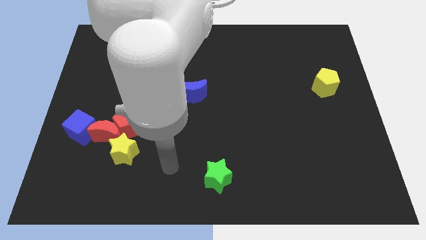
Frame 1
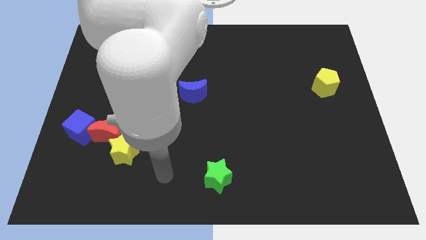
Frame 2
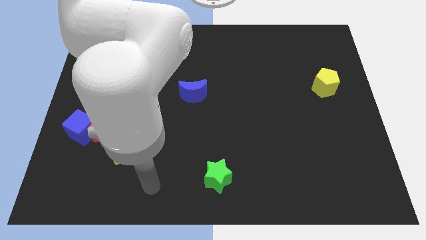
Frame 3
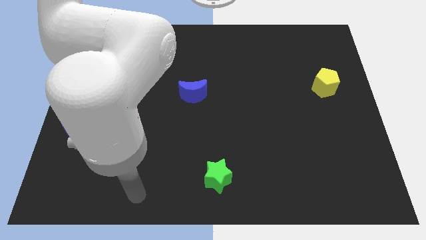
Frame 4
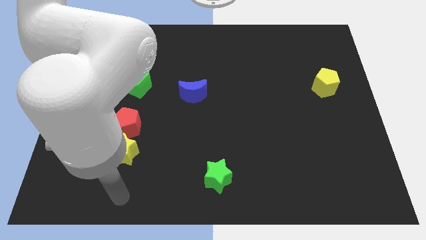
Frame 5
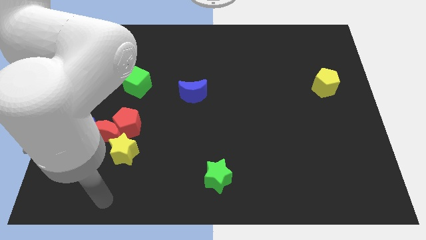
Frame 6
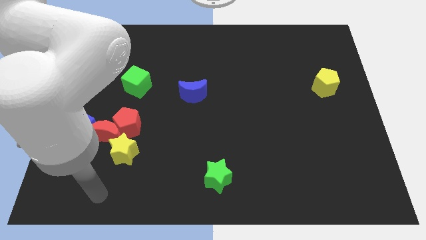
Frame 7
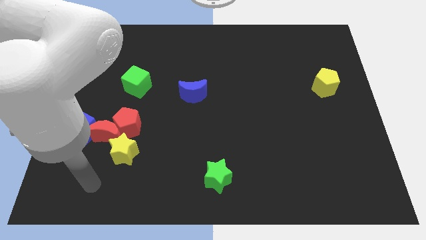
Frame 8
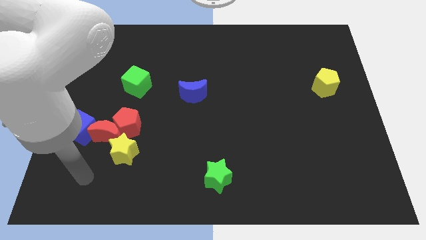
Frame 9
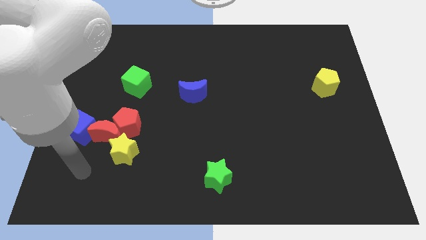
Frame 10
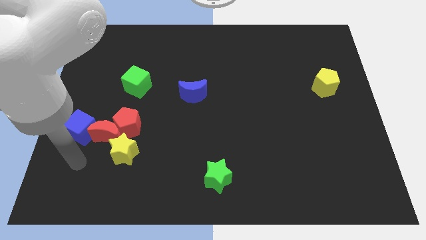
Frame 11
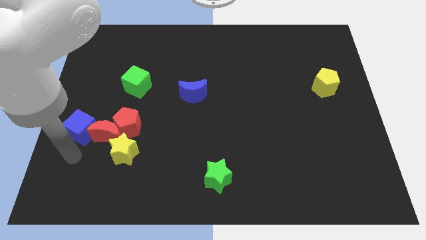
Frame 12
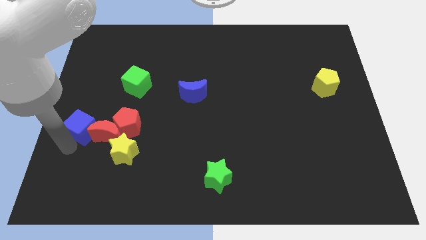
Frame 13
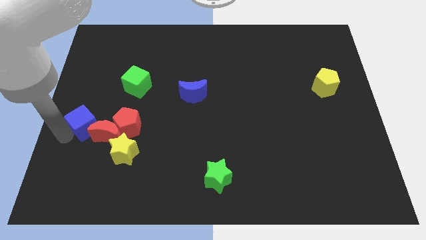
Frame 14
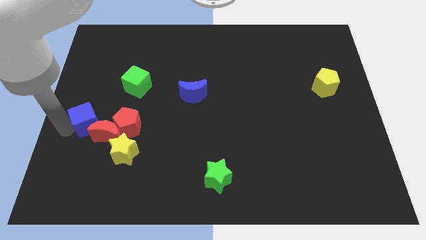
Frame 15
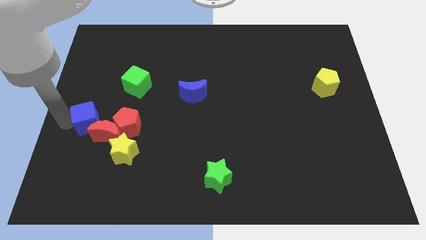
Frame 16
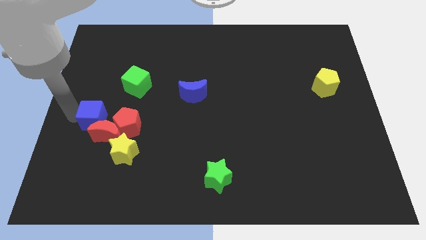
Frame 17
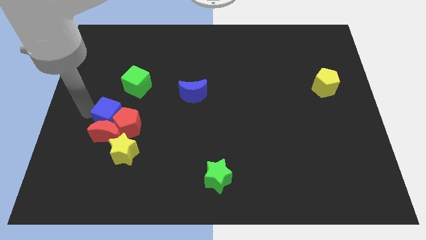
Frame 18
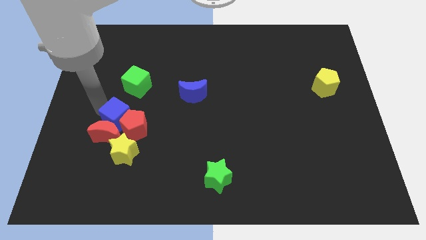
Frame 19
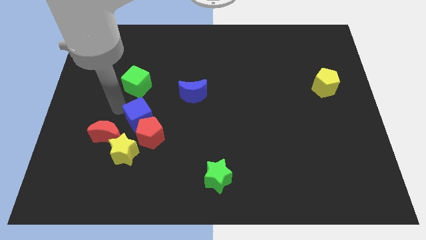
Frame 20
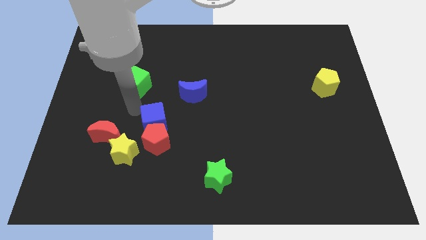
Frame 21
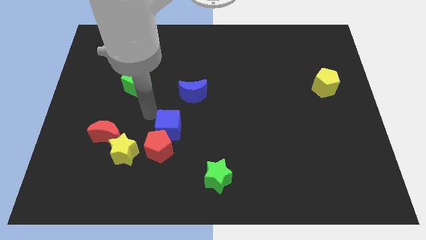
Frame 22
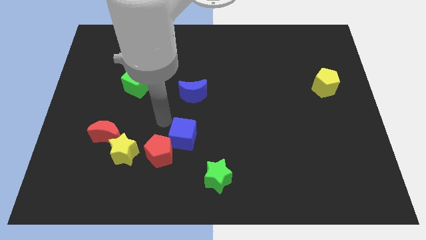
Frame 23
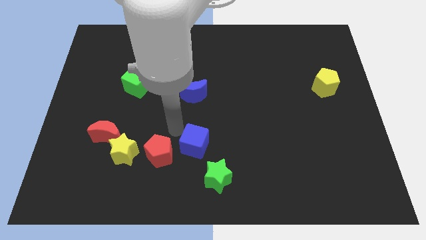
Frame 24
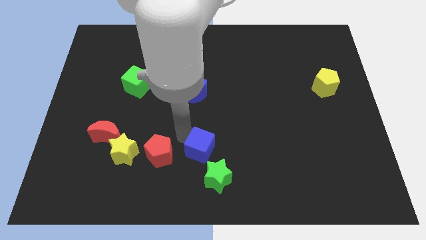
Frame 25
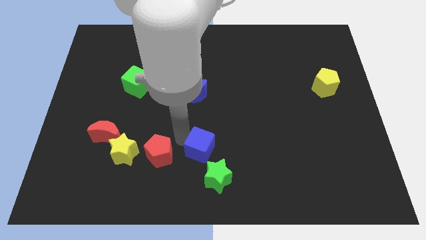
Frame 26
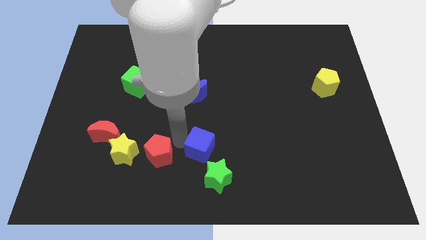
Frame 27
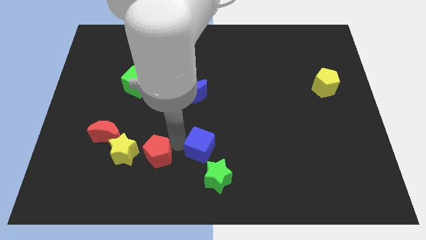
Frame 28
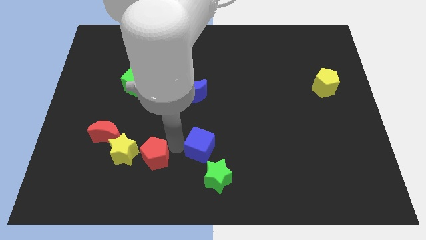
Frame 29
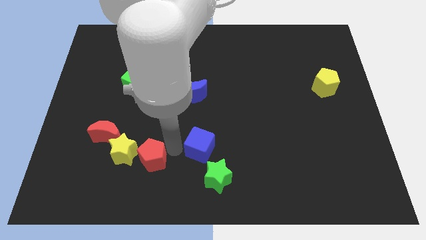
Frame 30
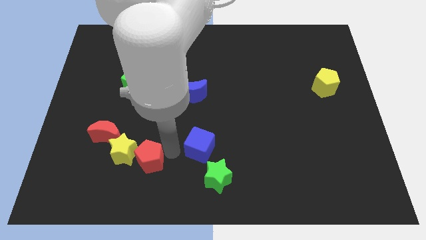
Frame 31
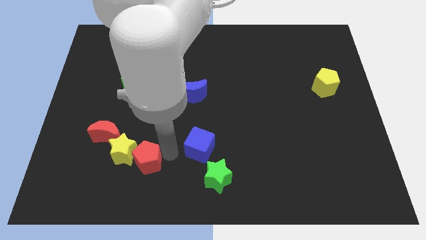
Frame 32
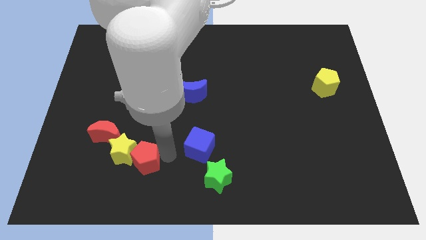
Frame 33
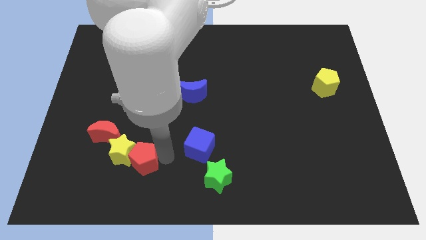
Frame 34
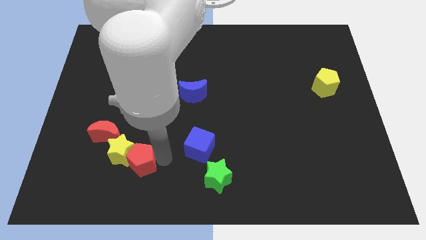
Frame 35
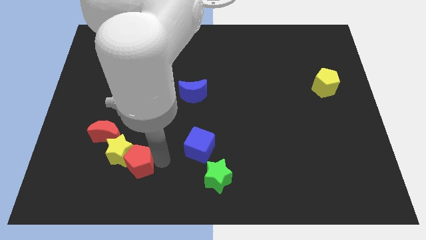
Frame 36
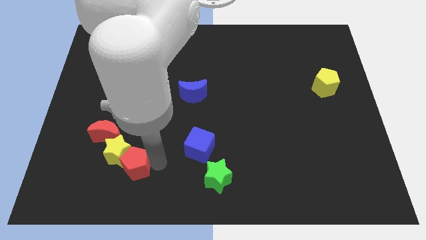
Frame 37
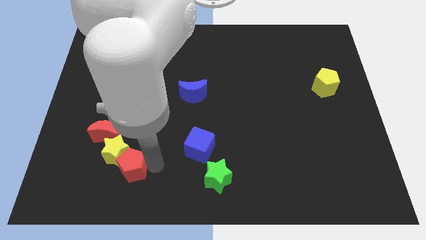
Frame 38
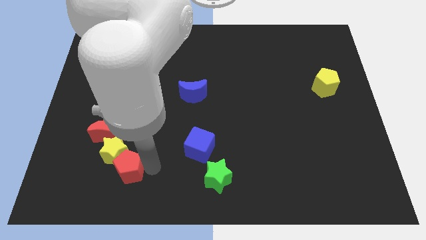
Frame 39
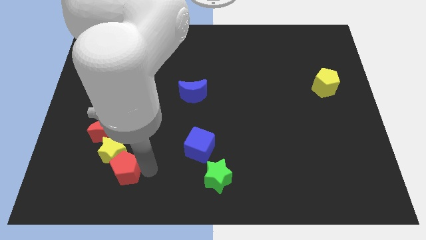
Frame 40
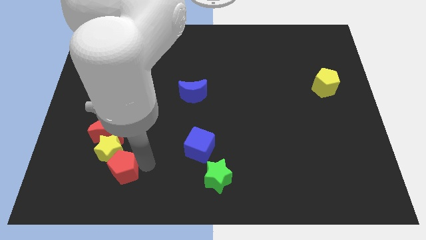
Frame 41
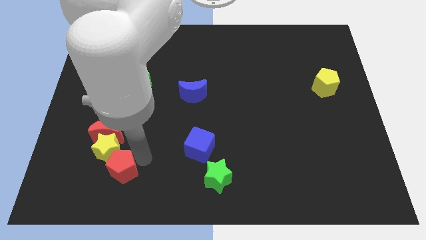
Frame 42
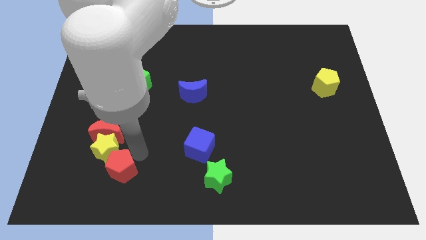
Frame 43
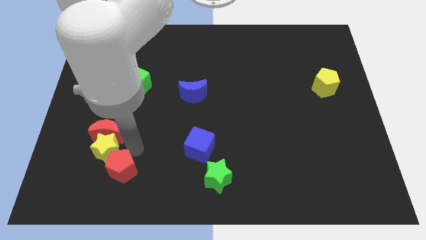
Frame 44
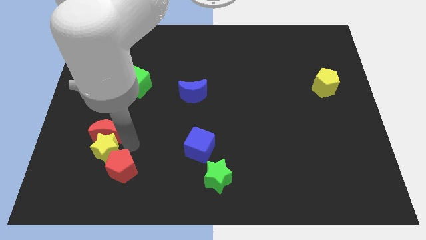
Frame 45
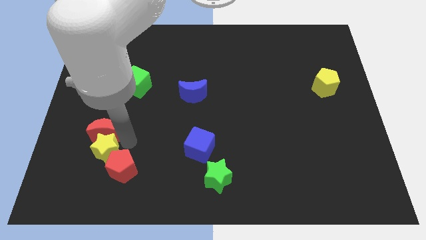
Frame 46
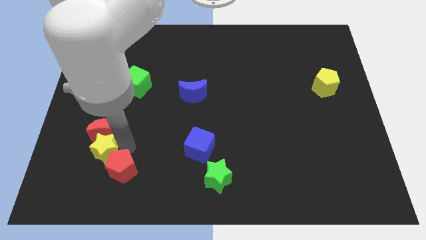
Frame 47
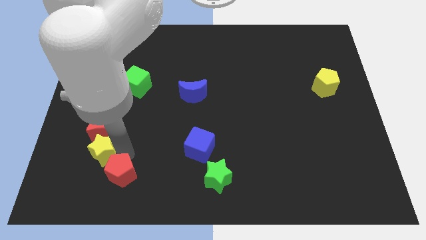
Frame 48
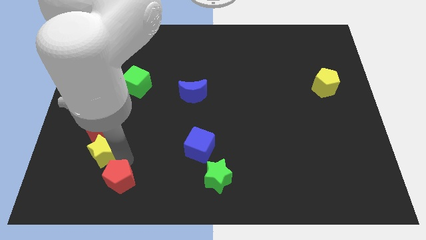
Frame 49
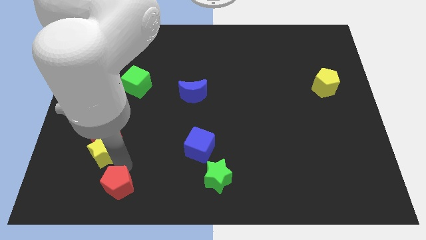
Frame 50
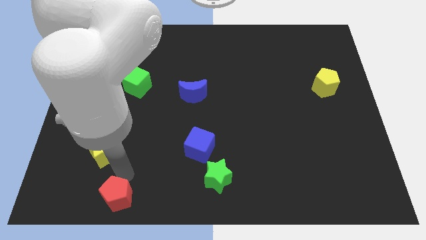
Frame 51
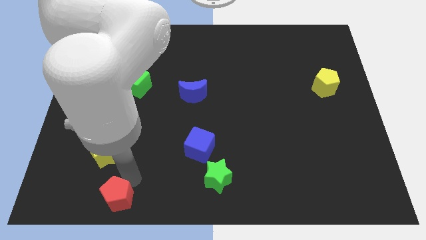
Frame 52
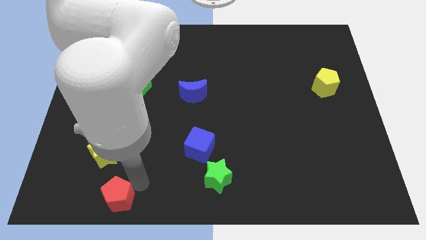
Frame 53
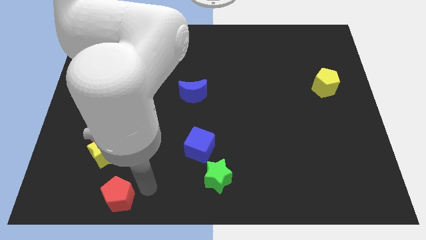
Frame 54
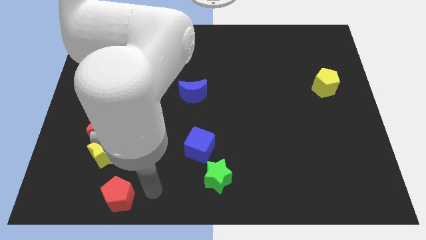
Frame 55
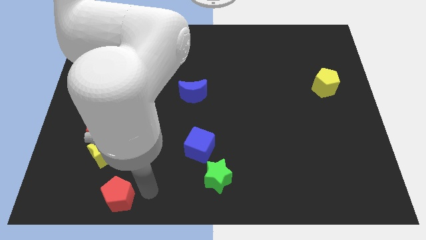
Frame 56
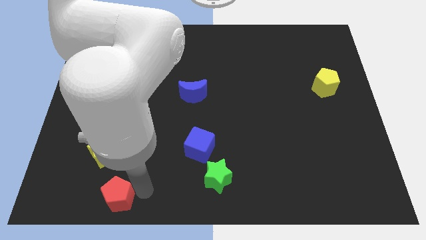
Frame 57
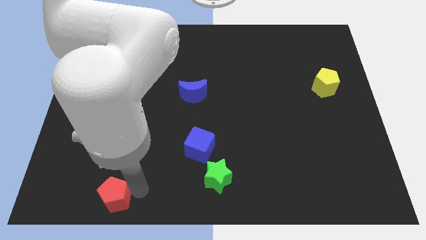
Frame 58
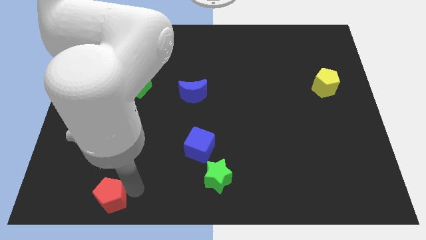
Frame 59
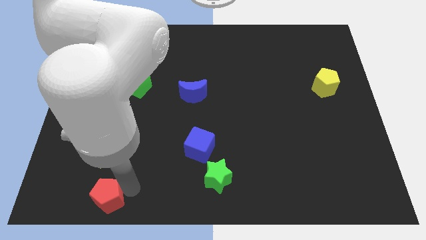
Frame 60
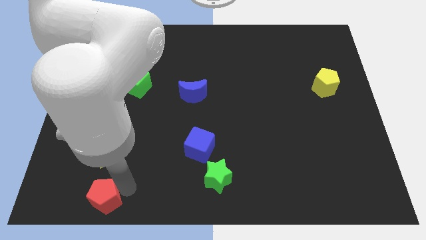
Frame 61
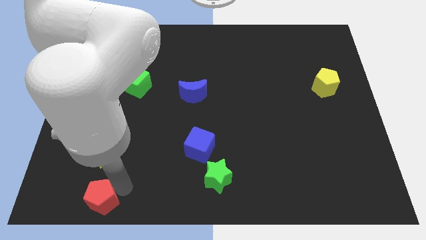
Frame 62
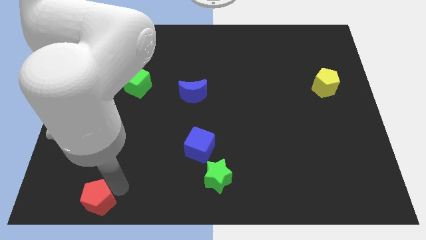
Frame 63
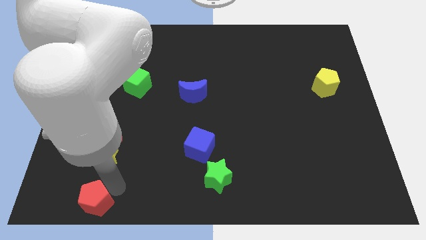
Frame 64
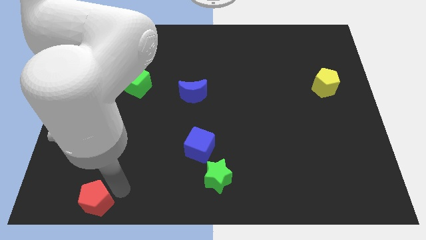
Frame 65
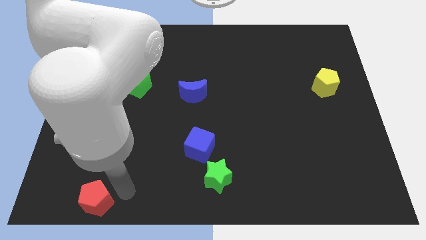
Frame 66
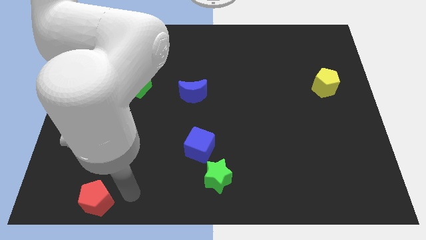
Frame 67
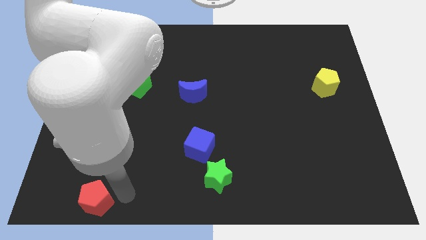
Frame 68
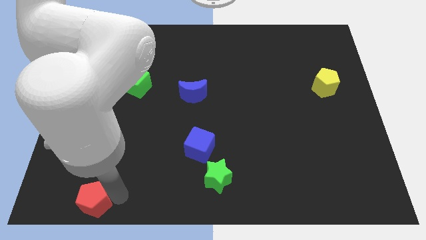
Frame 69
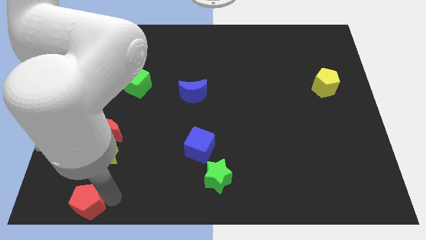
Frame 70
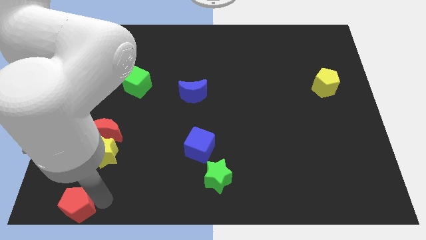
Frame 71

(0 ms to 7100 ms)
slide the red pentagon to the lower left corner
